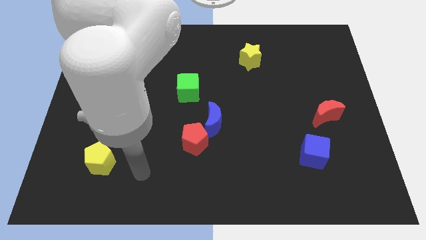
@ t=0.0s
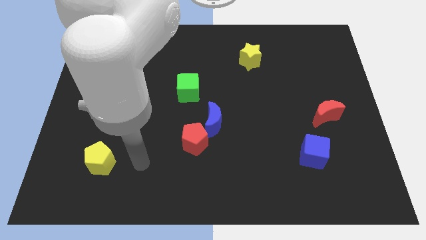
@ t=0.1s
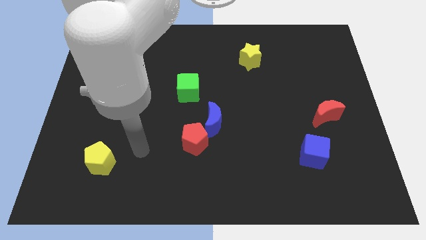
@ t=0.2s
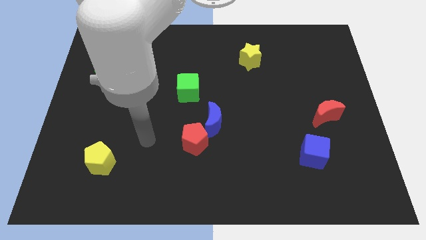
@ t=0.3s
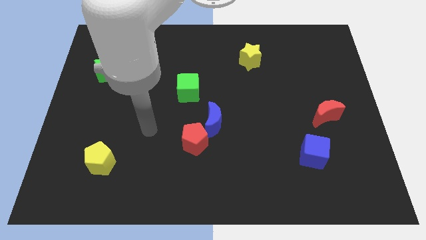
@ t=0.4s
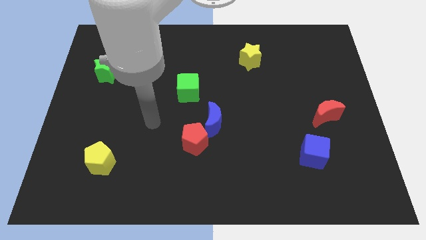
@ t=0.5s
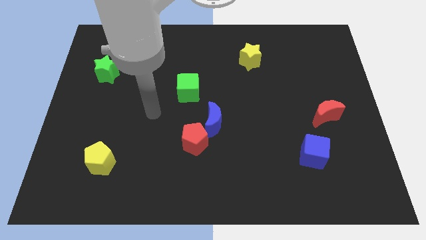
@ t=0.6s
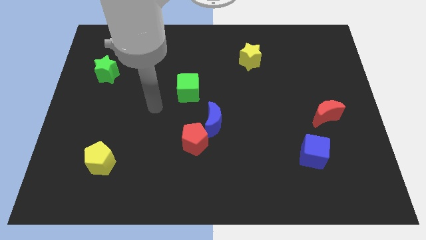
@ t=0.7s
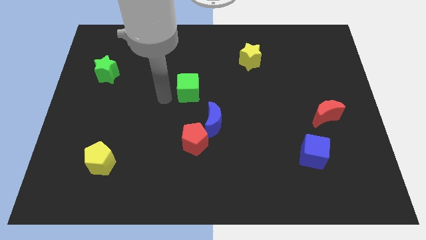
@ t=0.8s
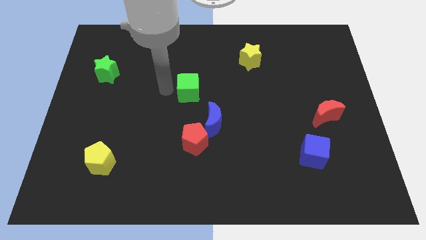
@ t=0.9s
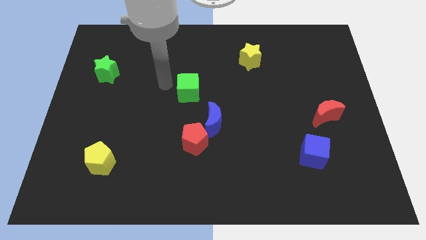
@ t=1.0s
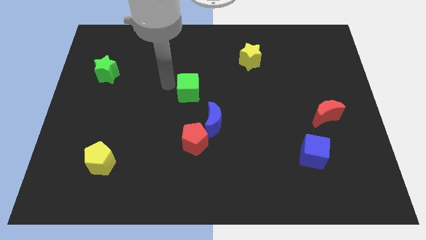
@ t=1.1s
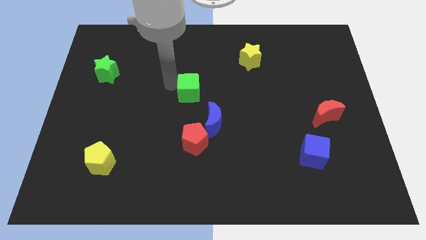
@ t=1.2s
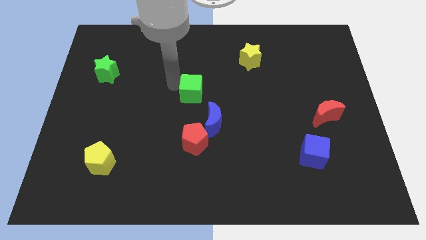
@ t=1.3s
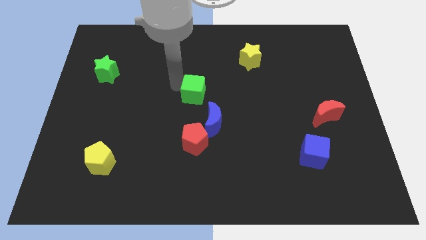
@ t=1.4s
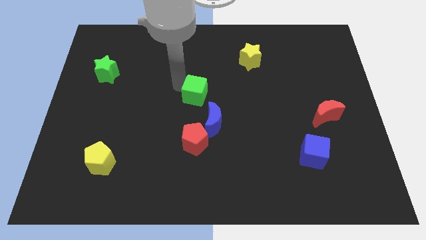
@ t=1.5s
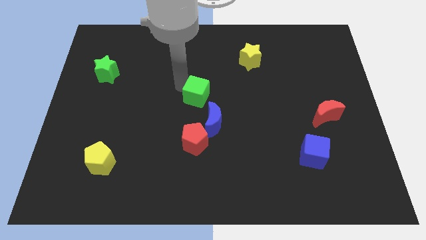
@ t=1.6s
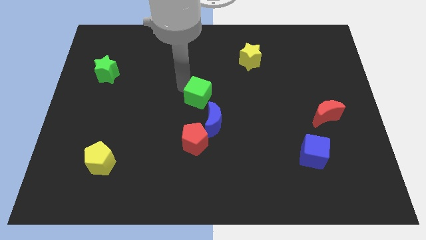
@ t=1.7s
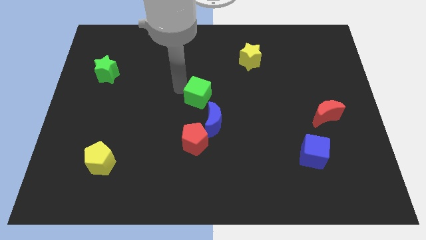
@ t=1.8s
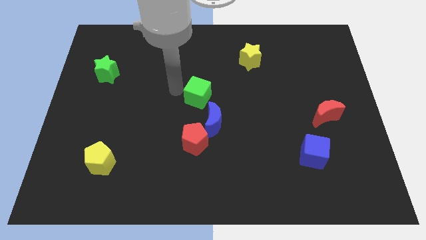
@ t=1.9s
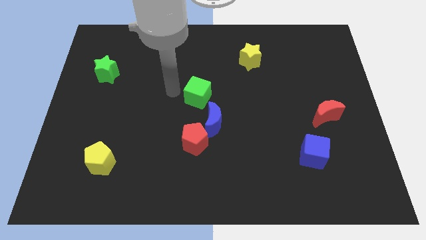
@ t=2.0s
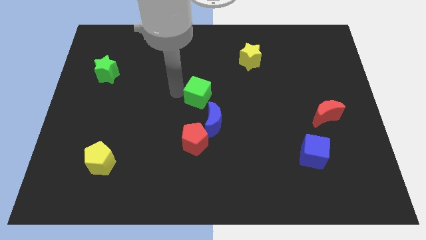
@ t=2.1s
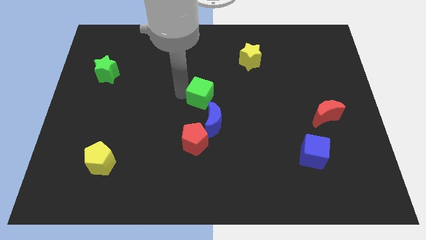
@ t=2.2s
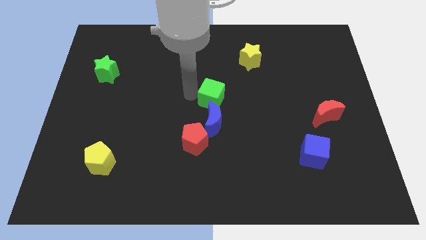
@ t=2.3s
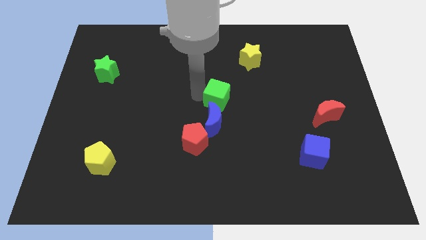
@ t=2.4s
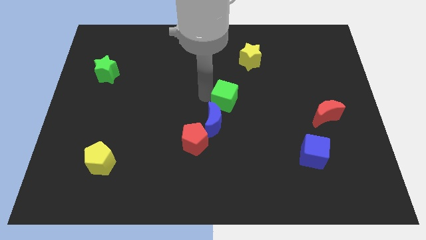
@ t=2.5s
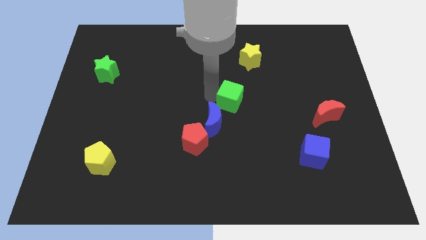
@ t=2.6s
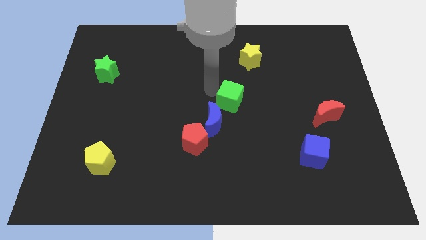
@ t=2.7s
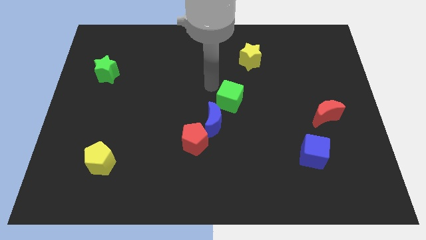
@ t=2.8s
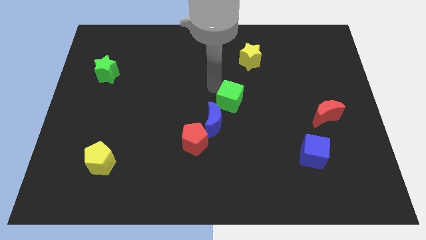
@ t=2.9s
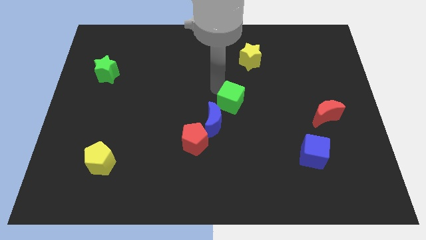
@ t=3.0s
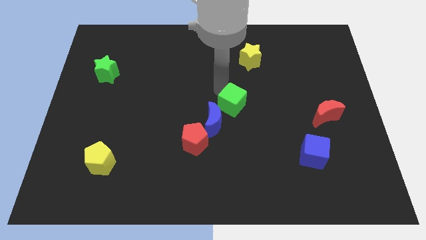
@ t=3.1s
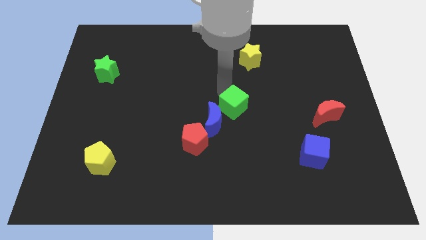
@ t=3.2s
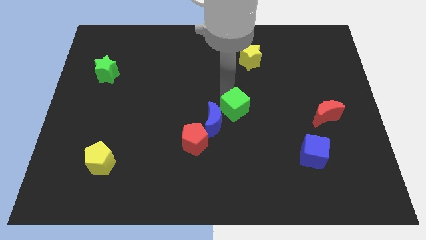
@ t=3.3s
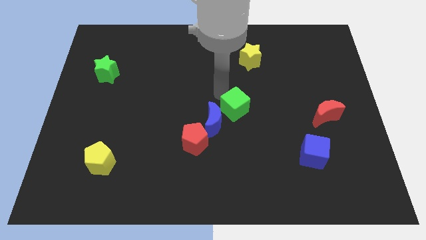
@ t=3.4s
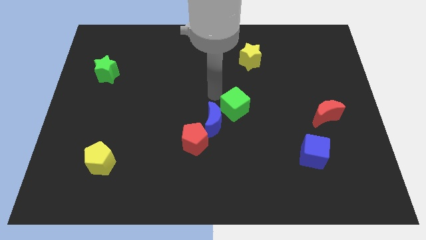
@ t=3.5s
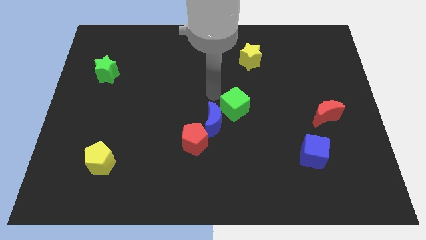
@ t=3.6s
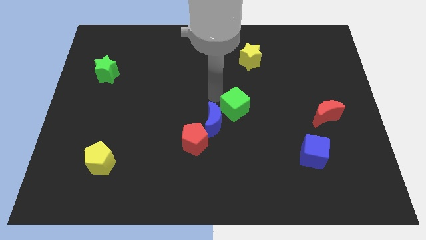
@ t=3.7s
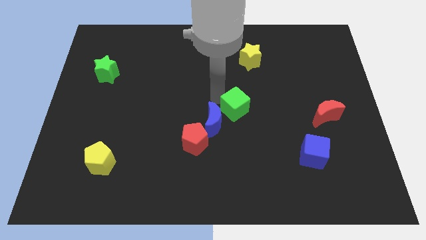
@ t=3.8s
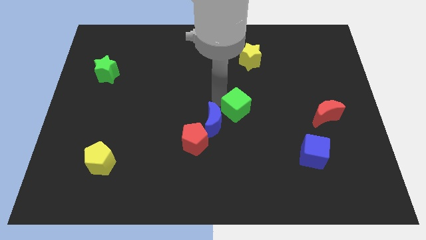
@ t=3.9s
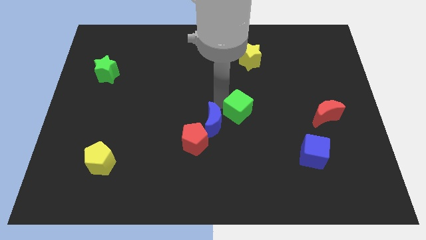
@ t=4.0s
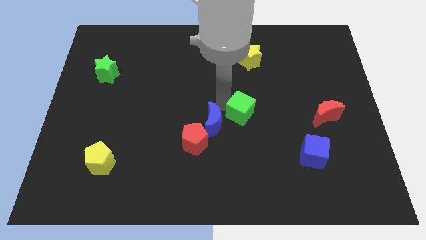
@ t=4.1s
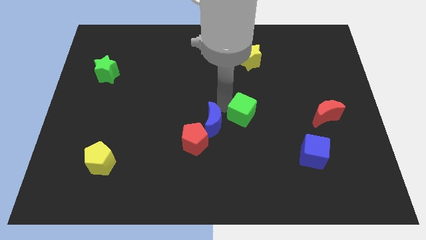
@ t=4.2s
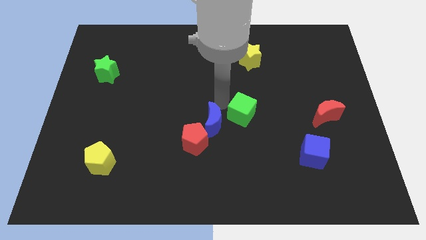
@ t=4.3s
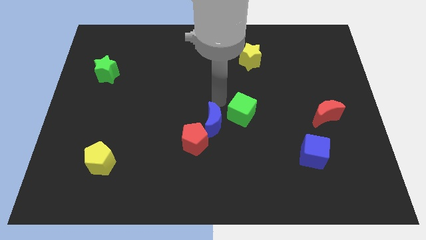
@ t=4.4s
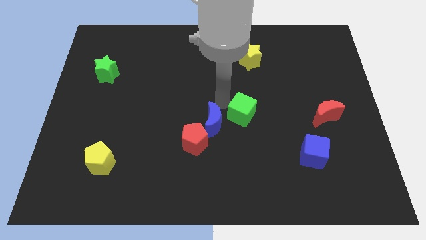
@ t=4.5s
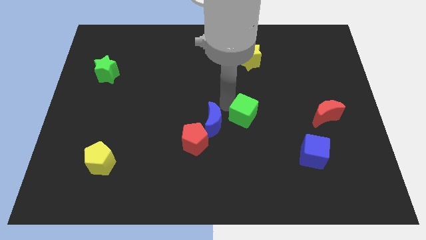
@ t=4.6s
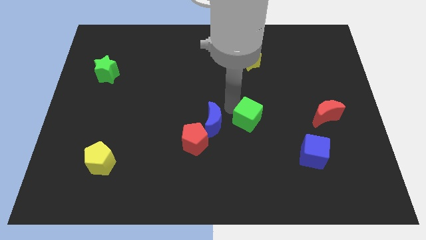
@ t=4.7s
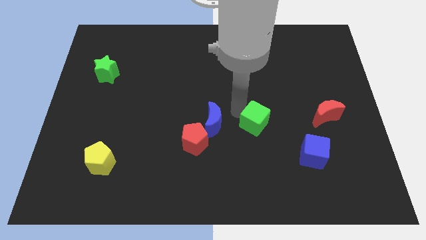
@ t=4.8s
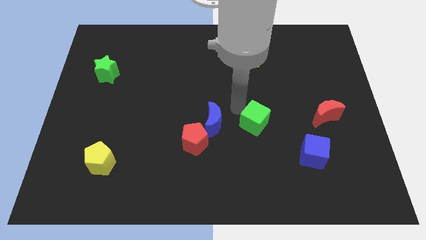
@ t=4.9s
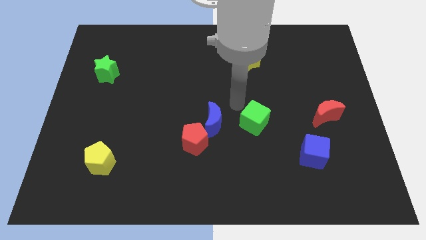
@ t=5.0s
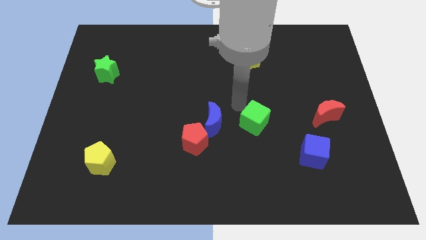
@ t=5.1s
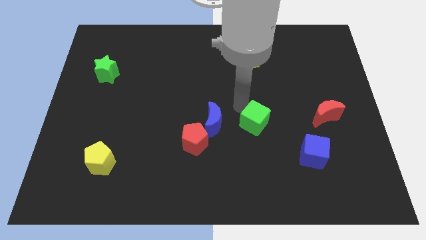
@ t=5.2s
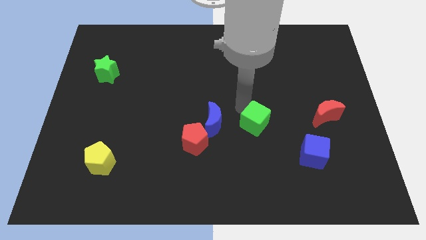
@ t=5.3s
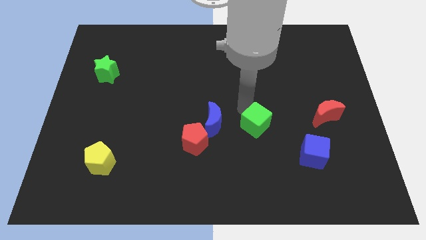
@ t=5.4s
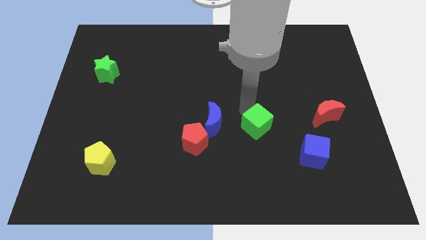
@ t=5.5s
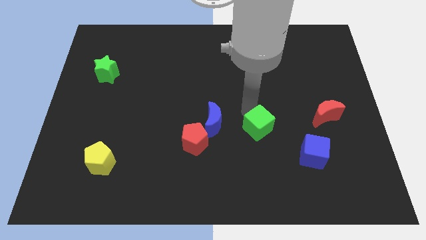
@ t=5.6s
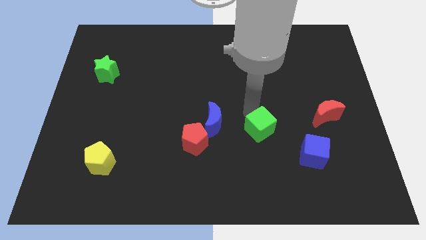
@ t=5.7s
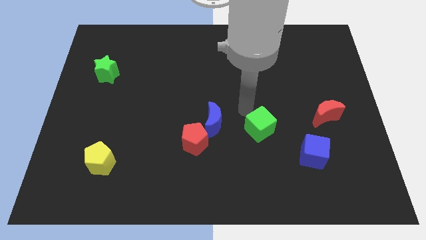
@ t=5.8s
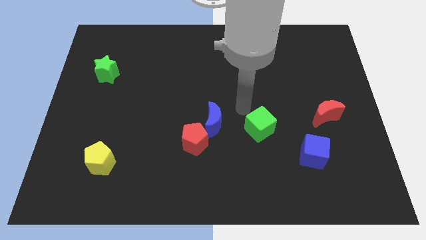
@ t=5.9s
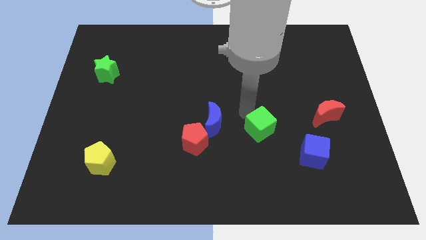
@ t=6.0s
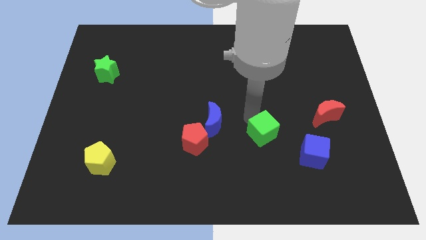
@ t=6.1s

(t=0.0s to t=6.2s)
slide the green cube diagonally downwards and right

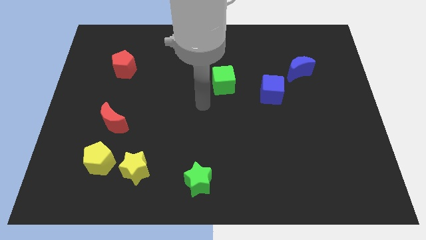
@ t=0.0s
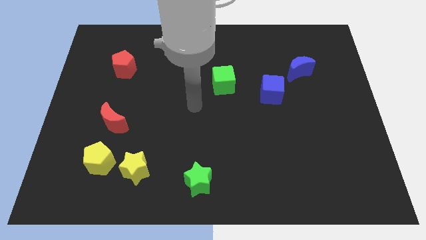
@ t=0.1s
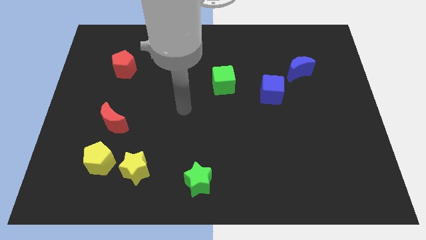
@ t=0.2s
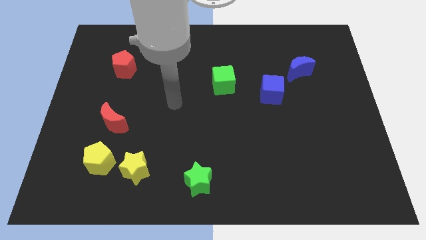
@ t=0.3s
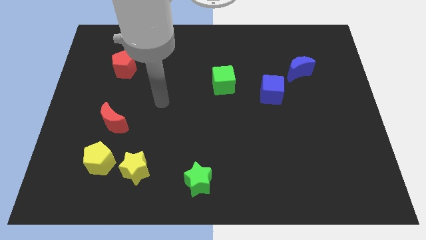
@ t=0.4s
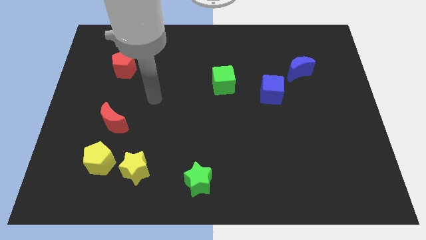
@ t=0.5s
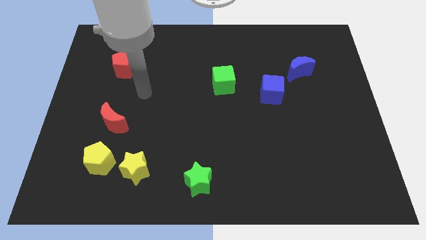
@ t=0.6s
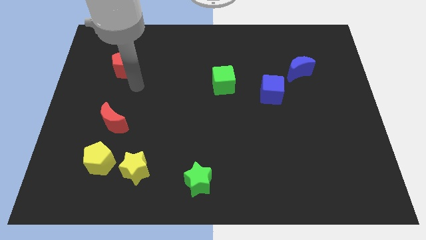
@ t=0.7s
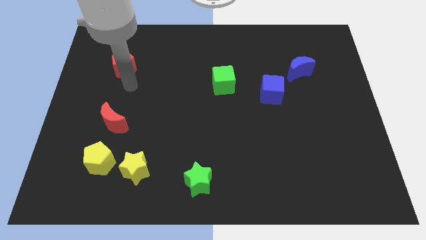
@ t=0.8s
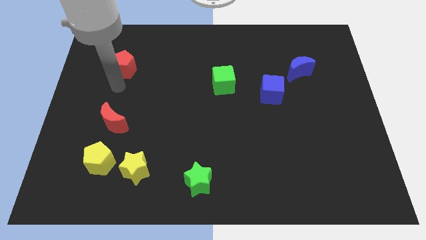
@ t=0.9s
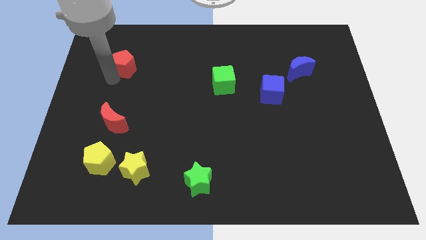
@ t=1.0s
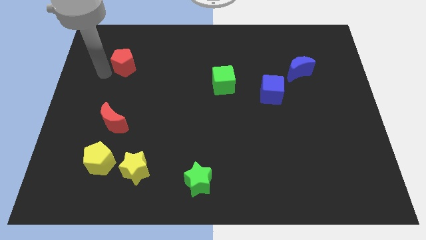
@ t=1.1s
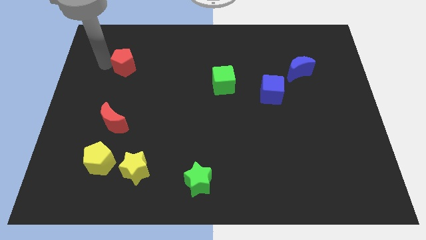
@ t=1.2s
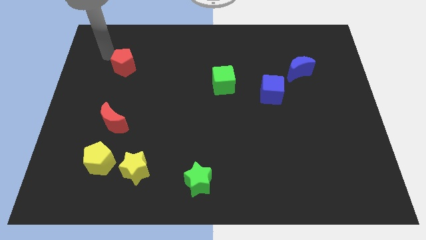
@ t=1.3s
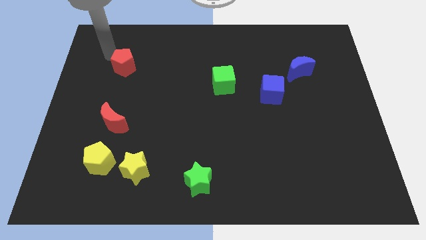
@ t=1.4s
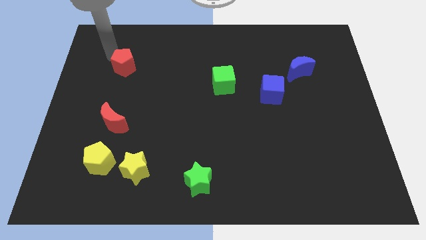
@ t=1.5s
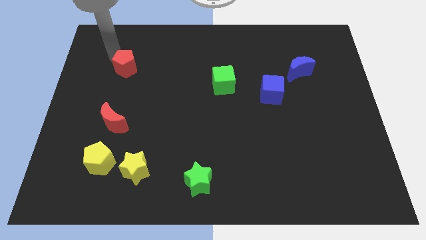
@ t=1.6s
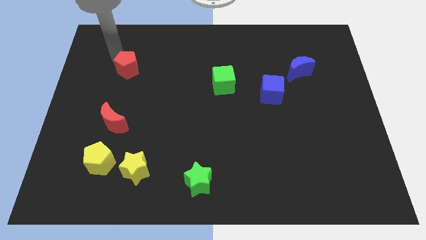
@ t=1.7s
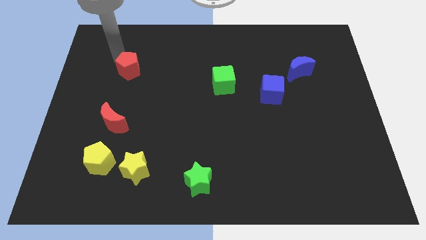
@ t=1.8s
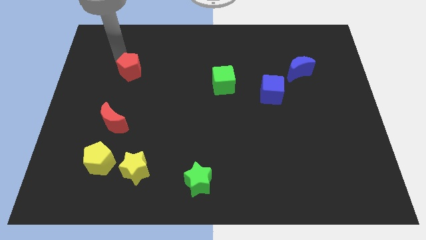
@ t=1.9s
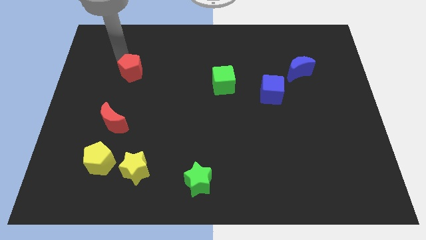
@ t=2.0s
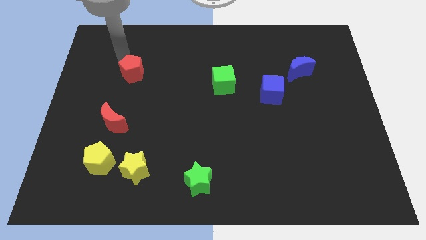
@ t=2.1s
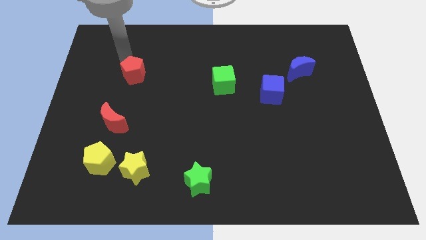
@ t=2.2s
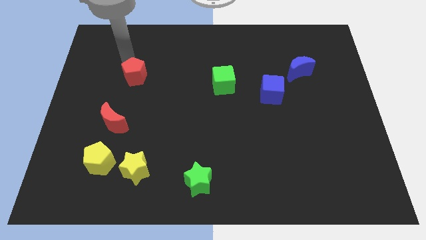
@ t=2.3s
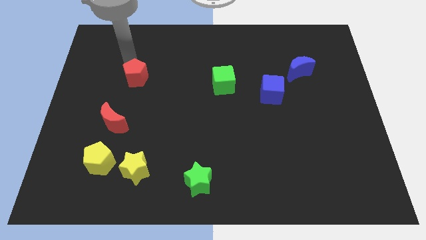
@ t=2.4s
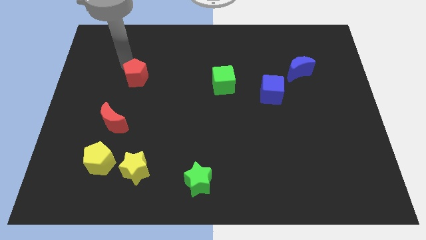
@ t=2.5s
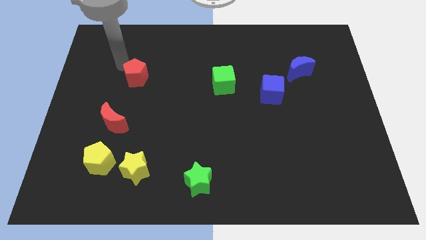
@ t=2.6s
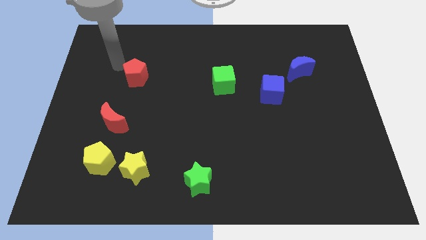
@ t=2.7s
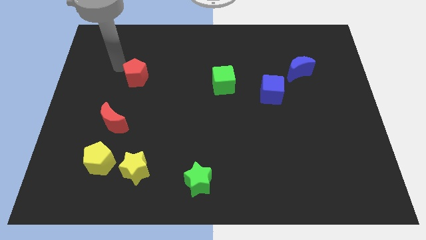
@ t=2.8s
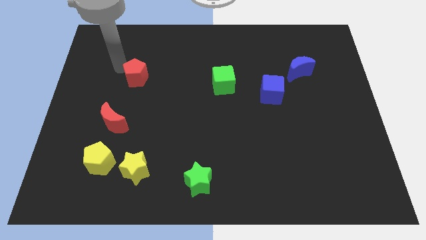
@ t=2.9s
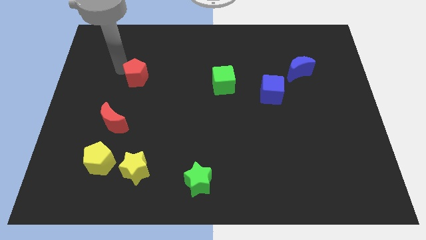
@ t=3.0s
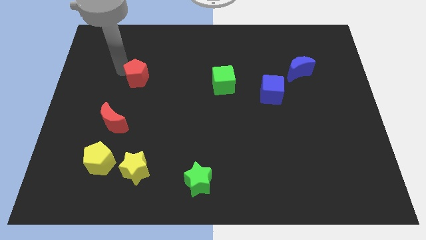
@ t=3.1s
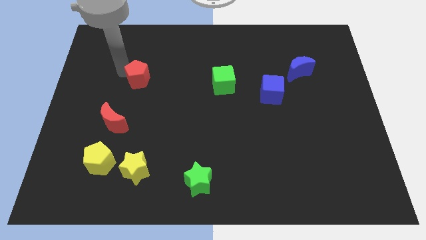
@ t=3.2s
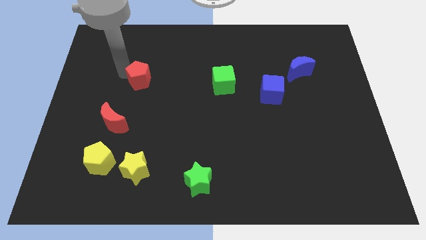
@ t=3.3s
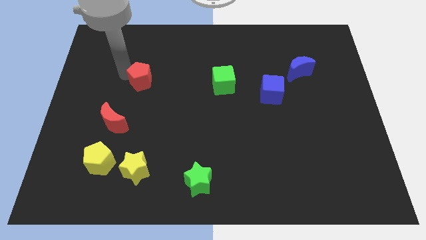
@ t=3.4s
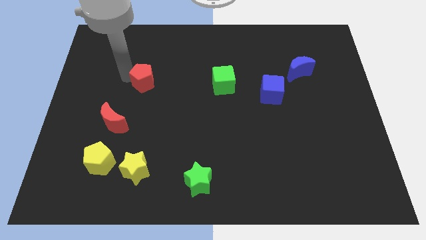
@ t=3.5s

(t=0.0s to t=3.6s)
slightly move the red pentagon down and right diagonally
